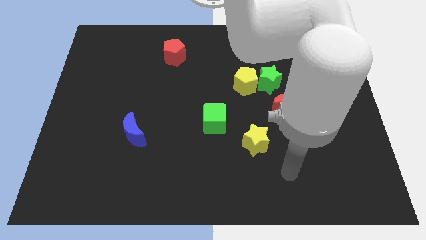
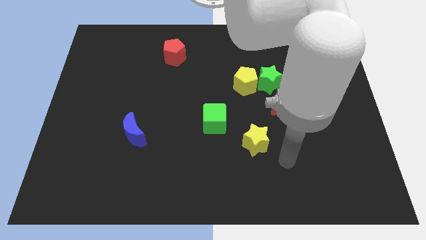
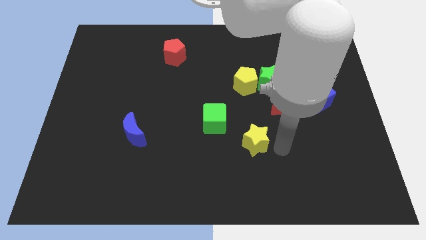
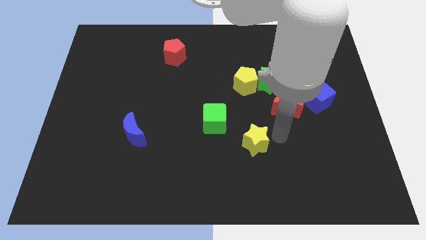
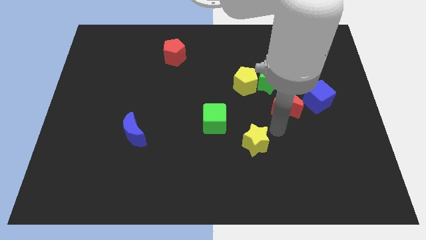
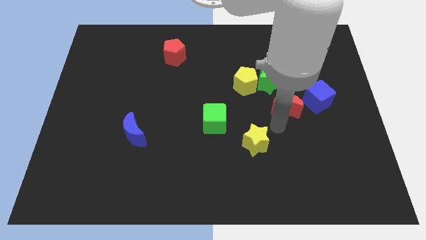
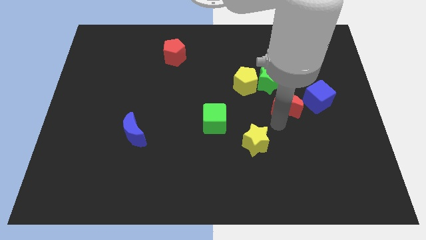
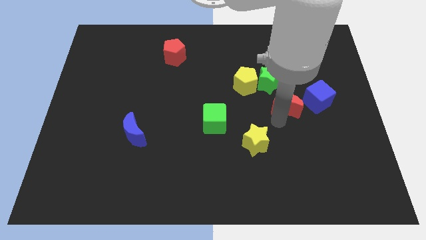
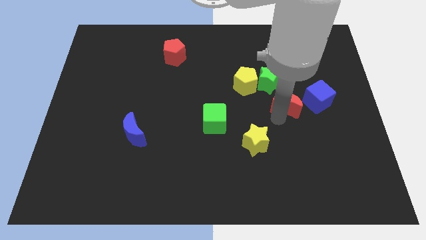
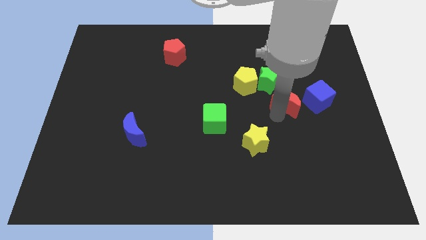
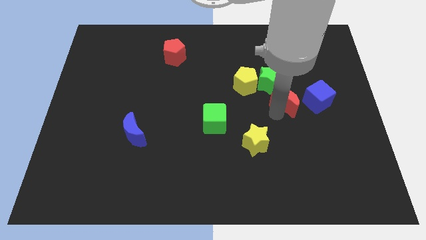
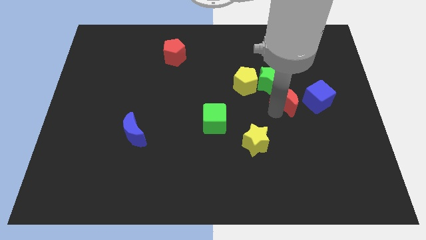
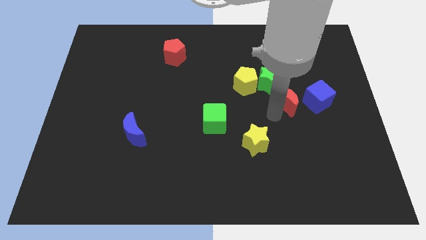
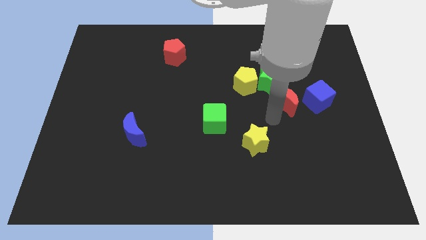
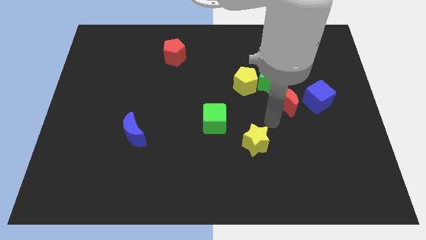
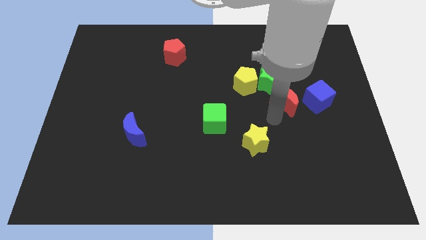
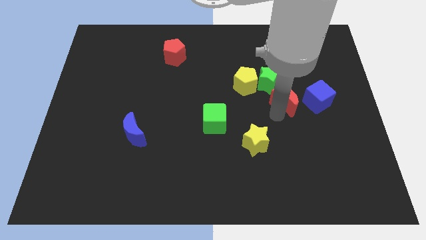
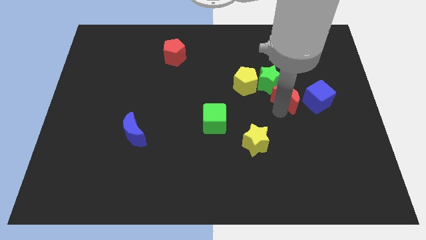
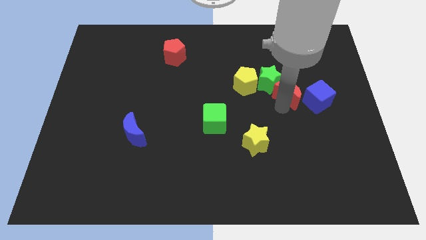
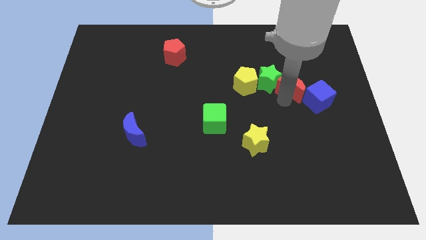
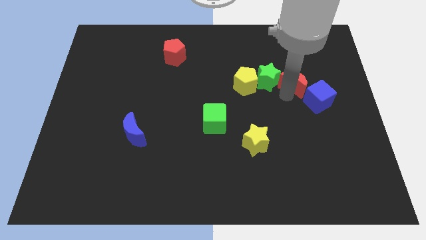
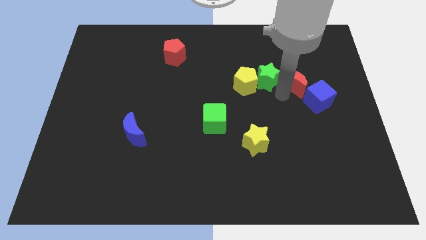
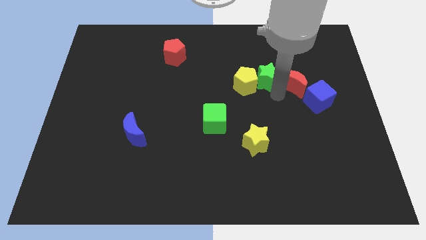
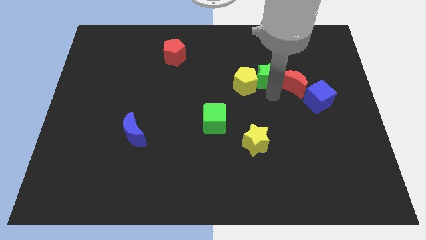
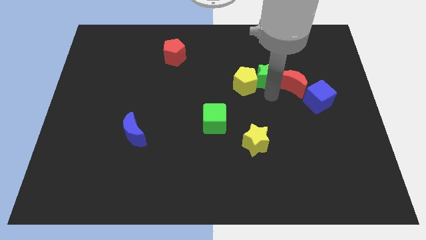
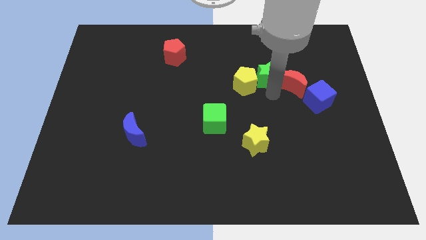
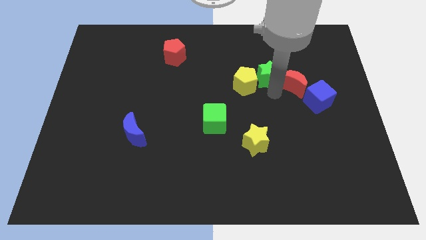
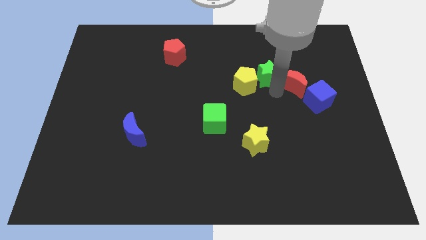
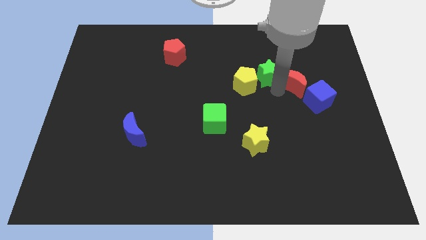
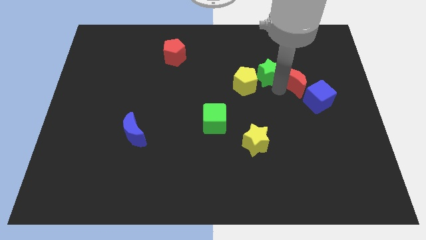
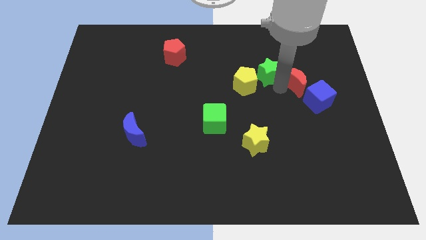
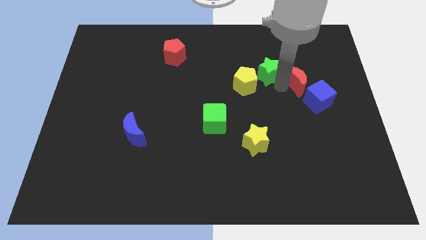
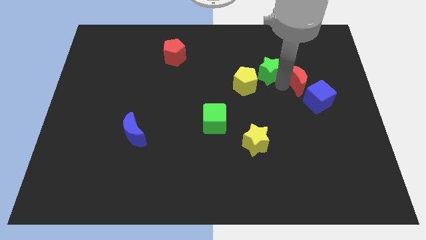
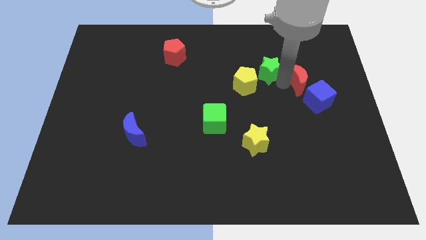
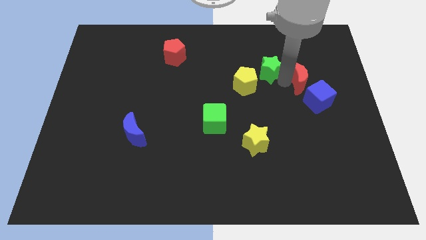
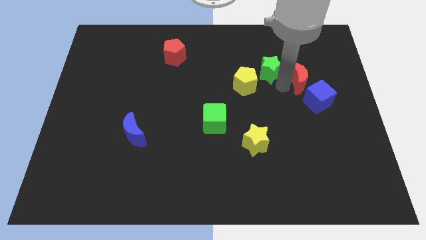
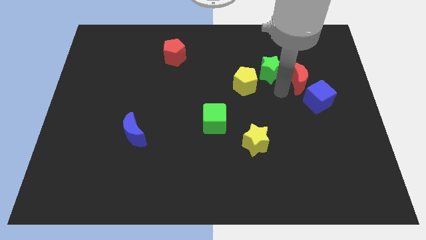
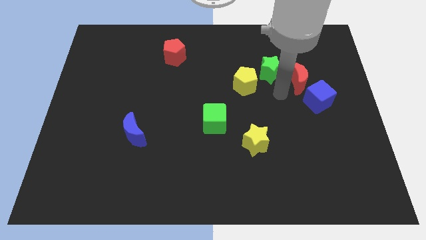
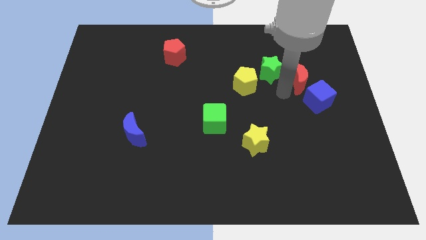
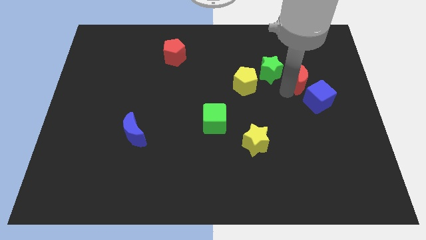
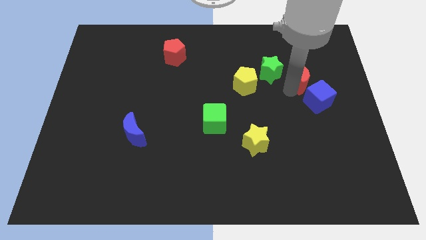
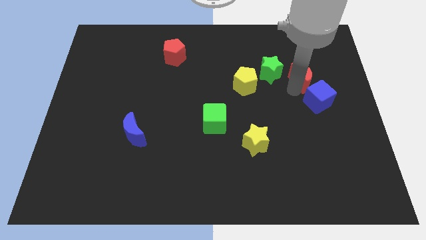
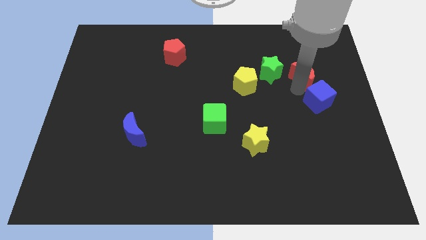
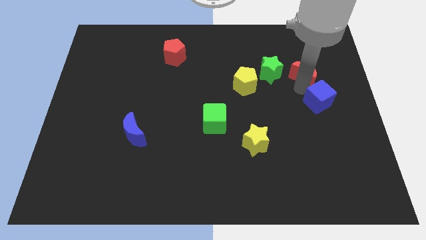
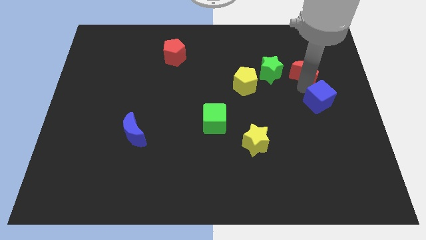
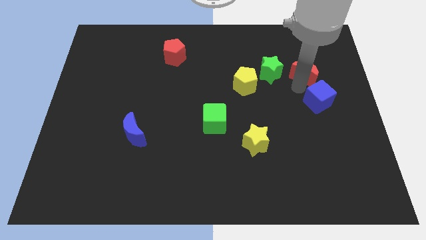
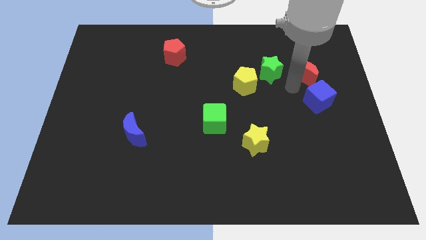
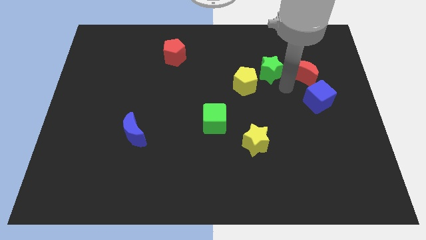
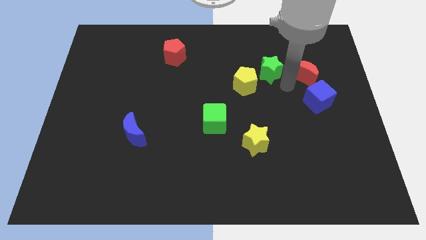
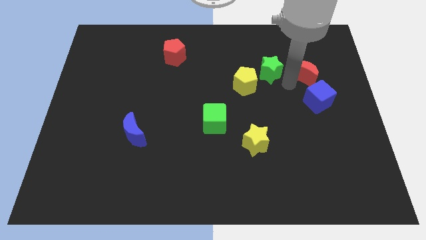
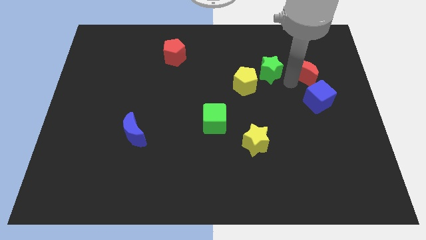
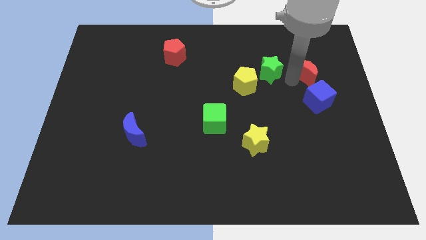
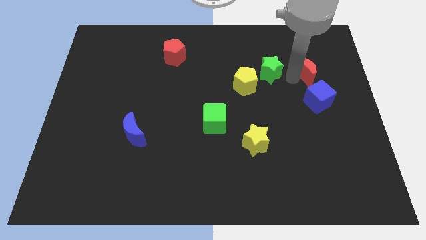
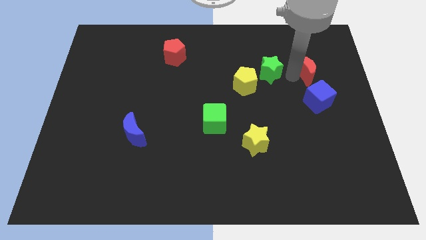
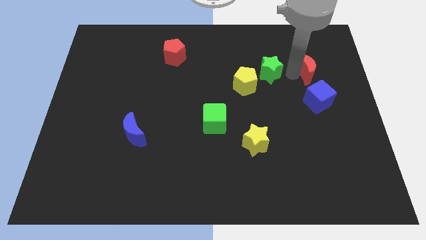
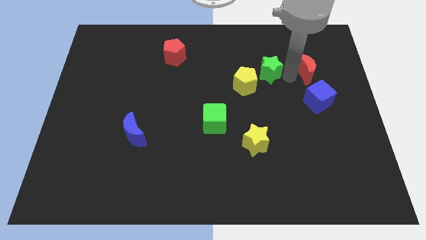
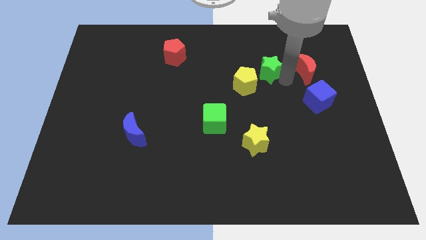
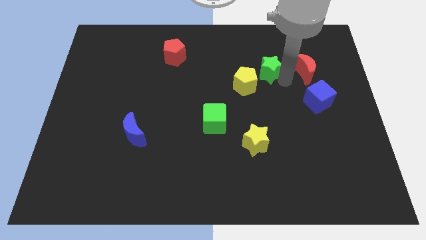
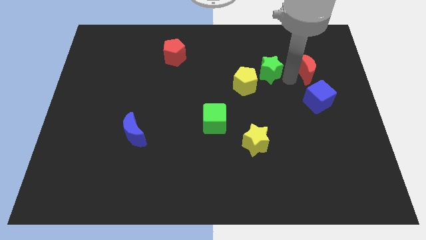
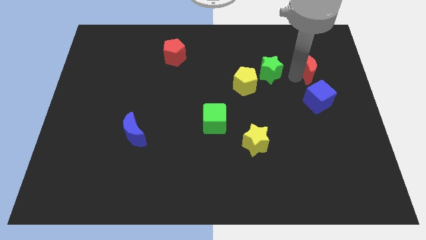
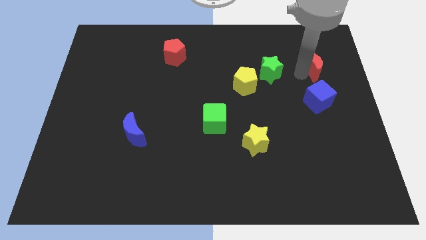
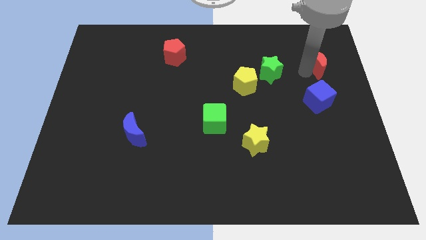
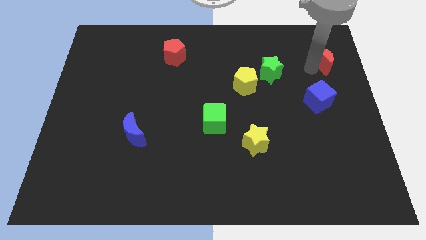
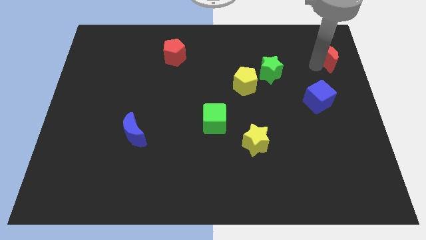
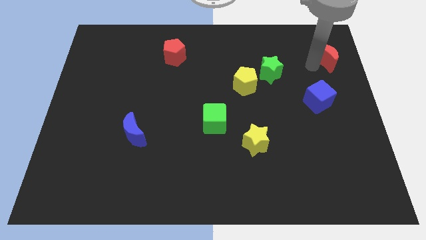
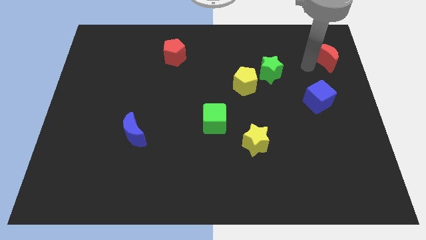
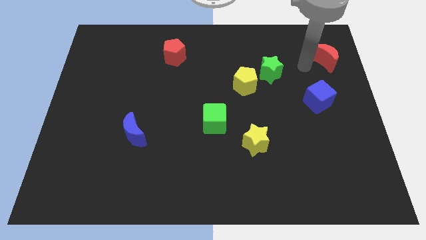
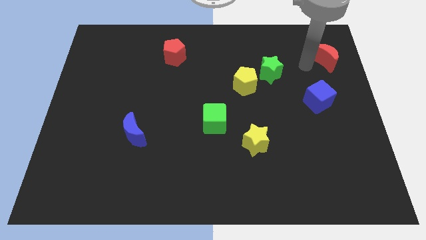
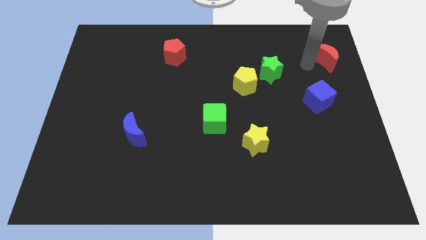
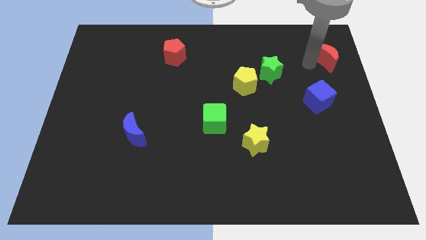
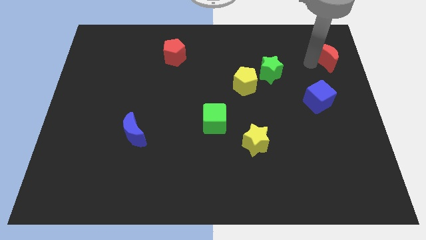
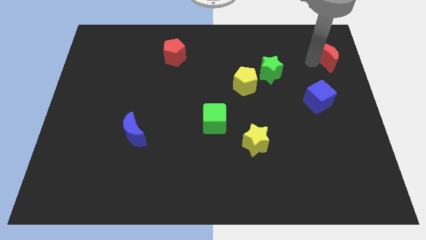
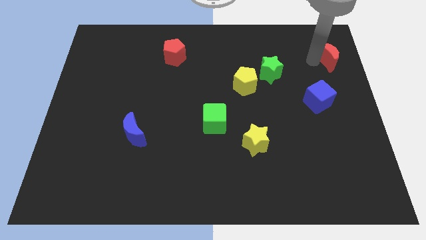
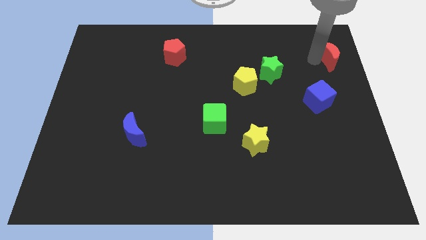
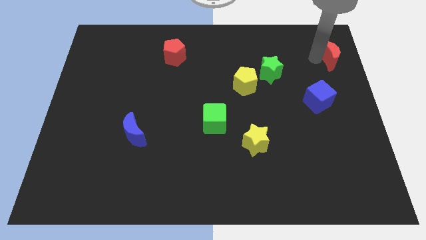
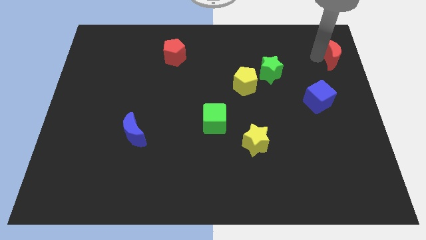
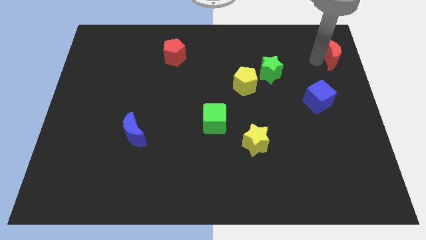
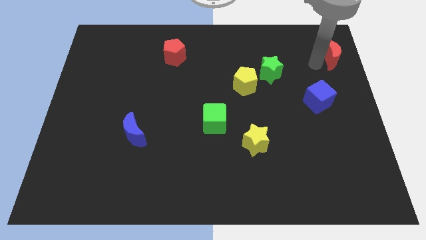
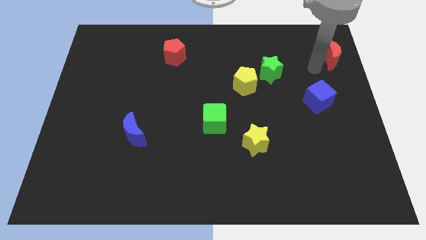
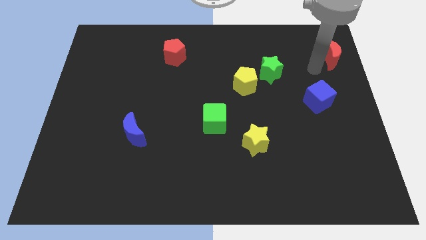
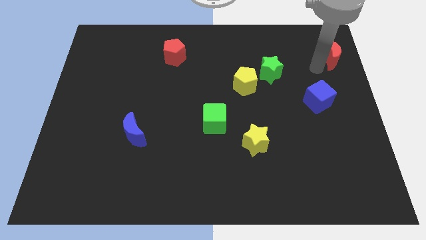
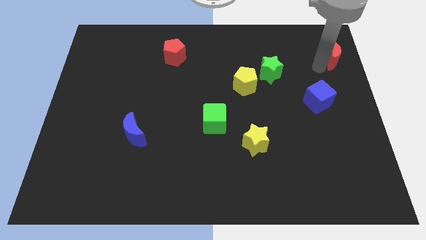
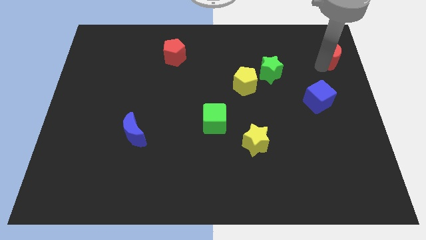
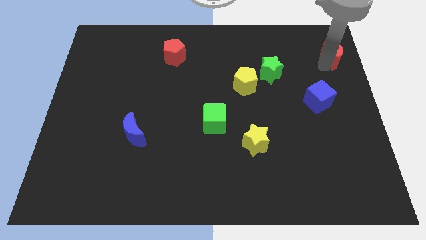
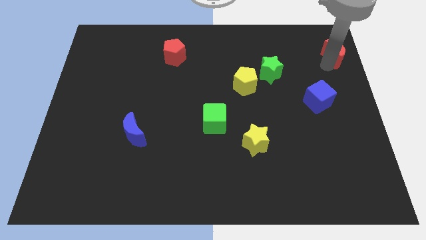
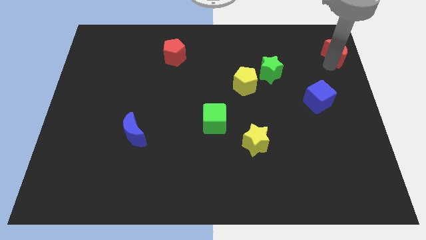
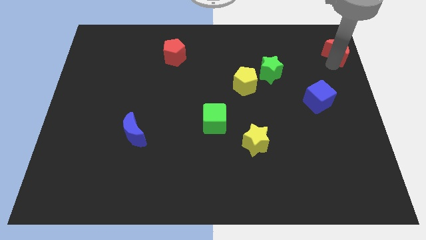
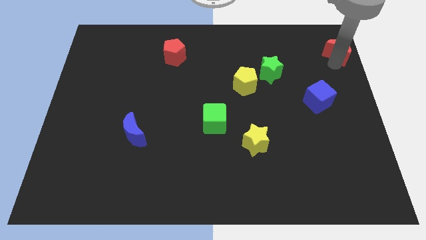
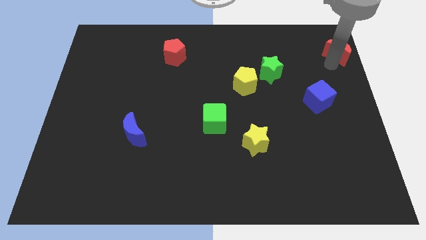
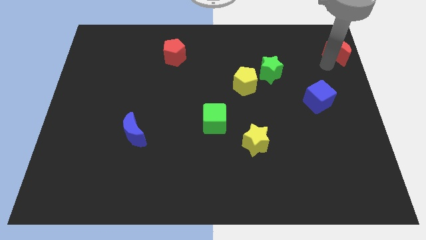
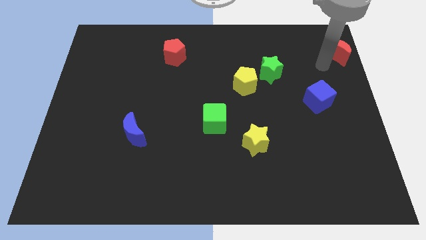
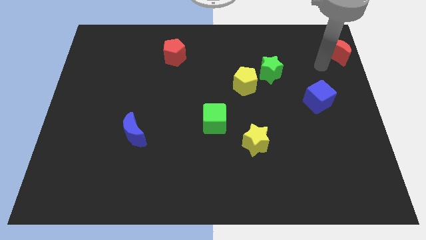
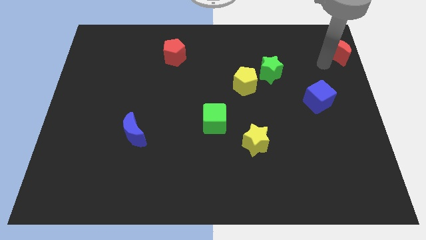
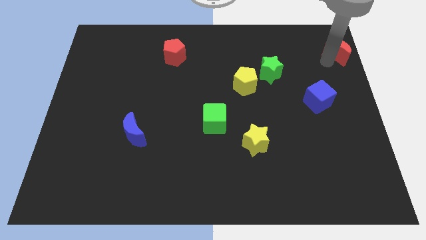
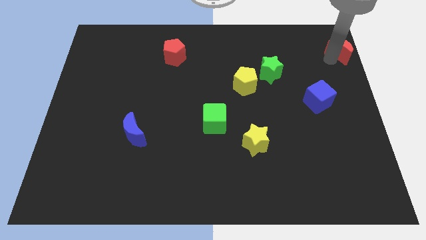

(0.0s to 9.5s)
put the red moon to the upper right corner
